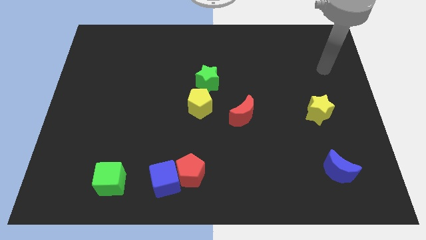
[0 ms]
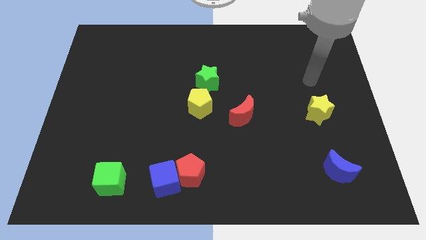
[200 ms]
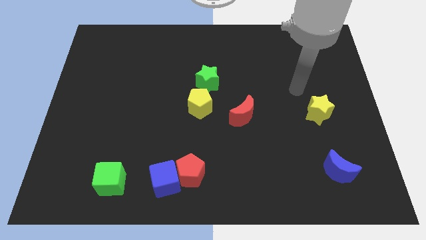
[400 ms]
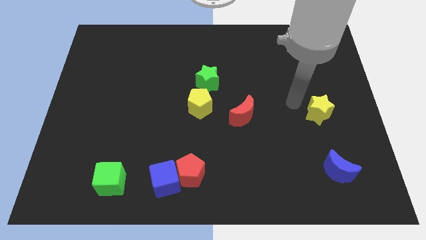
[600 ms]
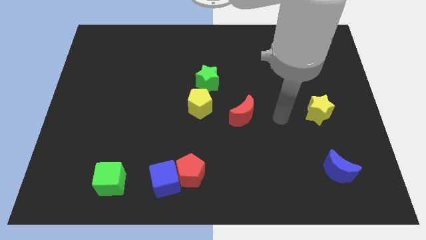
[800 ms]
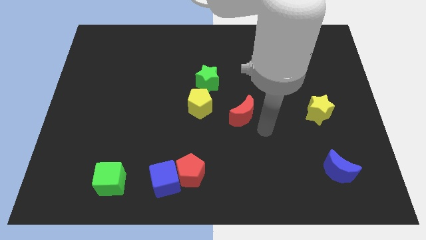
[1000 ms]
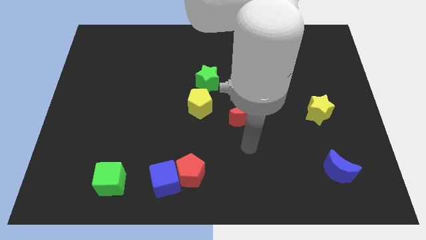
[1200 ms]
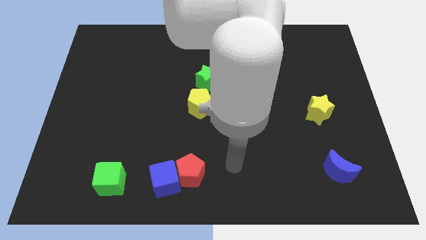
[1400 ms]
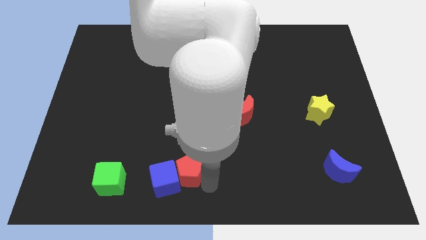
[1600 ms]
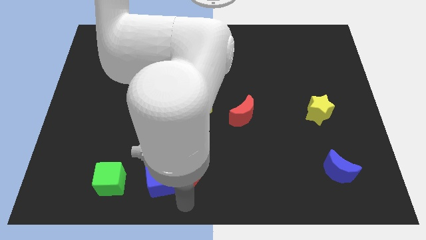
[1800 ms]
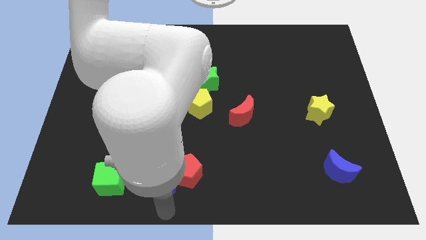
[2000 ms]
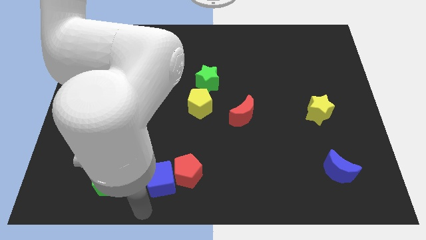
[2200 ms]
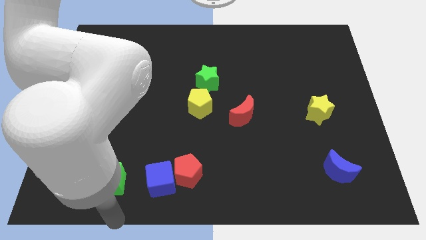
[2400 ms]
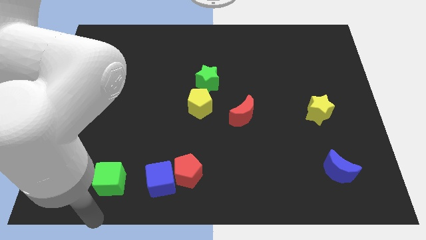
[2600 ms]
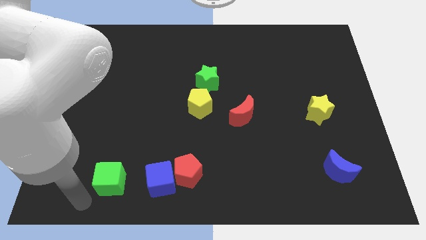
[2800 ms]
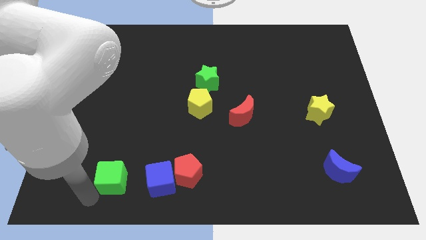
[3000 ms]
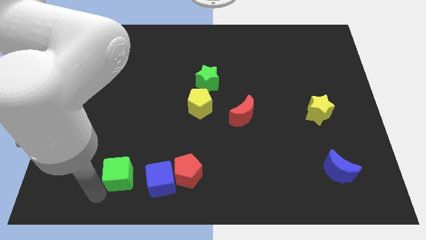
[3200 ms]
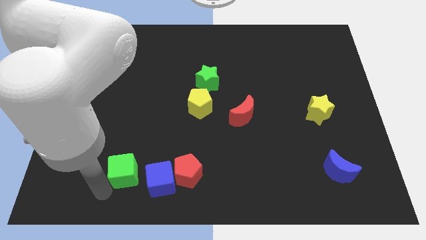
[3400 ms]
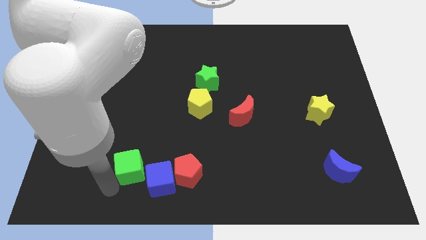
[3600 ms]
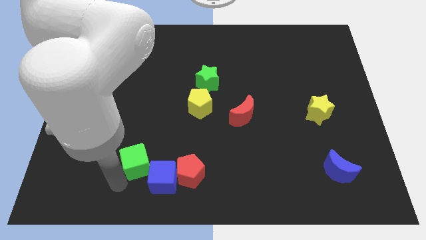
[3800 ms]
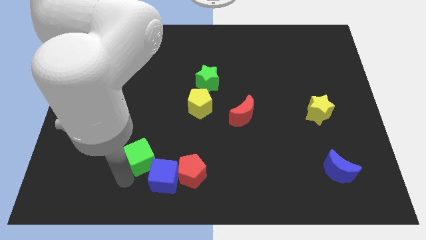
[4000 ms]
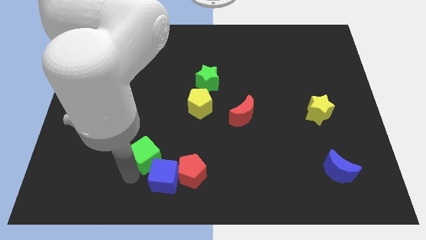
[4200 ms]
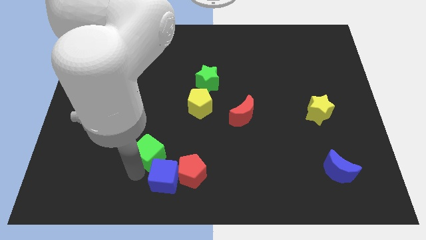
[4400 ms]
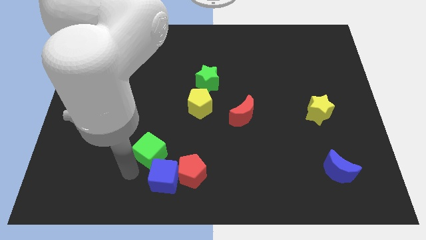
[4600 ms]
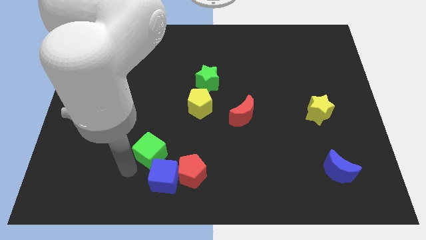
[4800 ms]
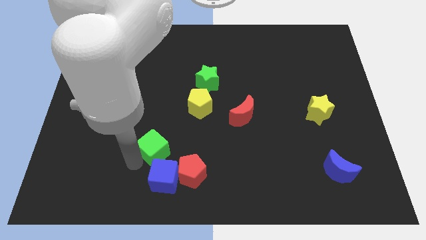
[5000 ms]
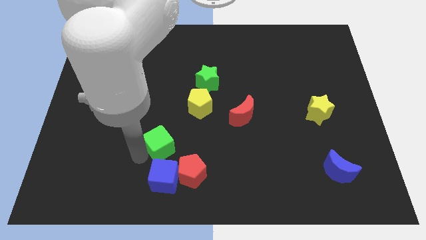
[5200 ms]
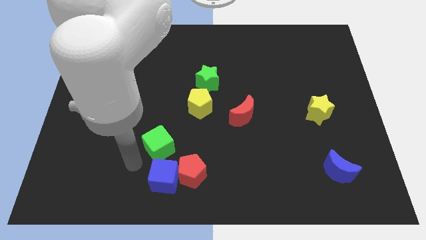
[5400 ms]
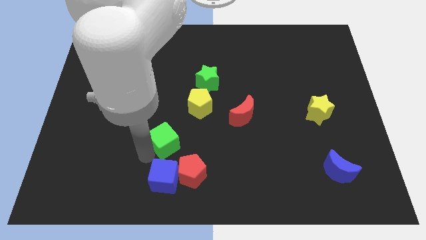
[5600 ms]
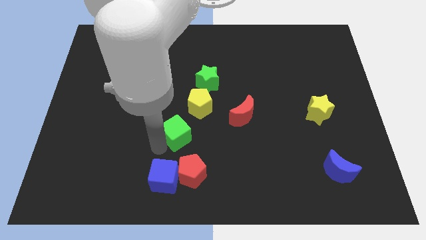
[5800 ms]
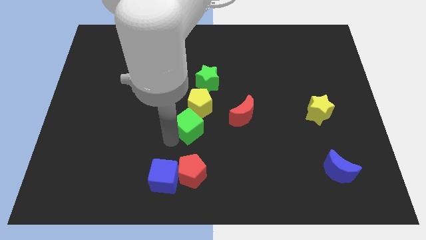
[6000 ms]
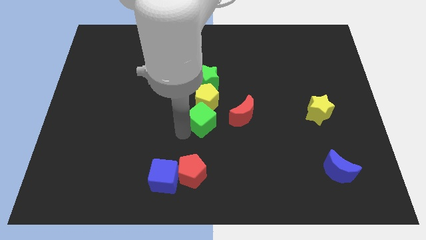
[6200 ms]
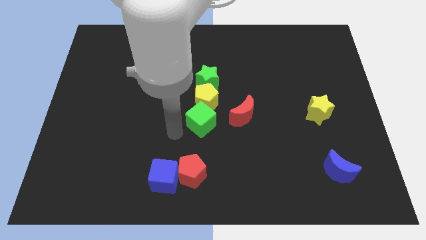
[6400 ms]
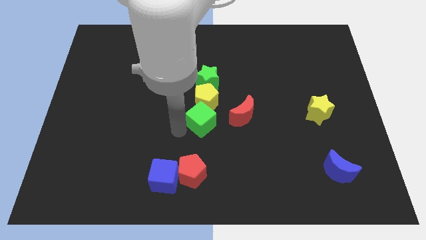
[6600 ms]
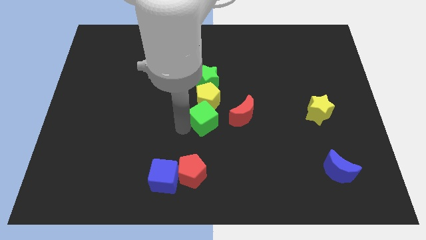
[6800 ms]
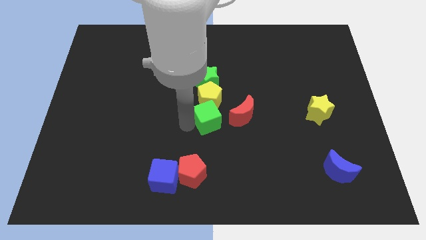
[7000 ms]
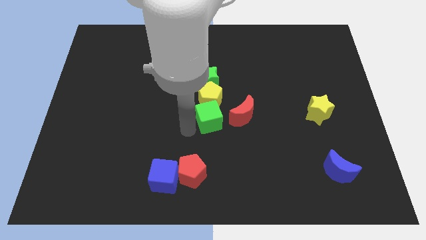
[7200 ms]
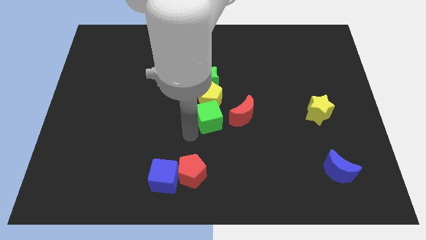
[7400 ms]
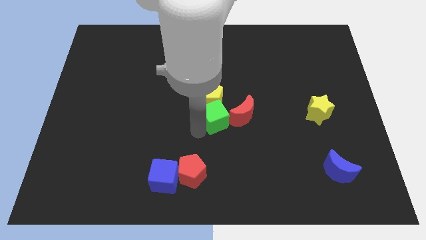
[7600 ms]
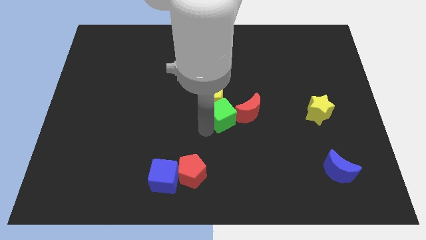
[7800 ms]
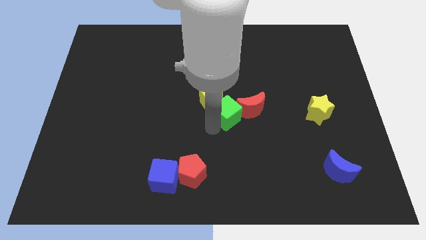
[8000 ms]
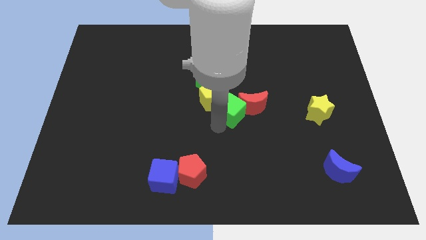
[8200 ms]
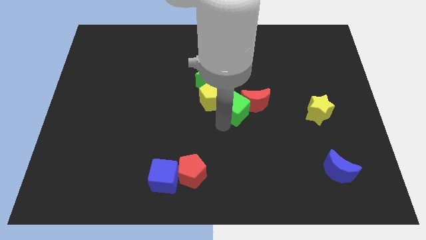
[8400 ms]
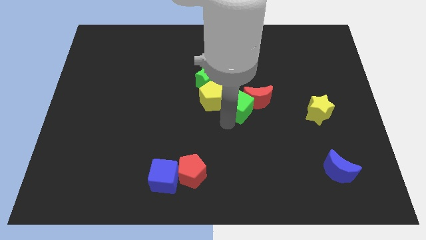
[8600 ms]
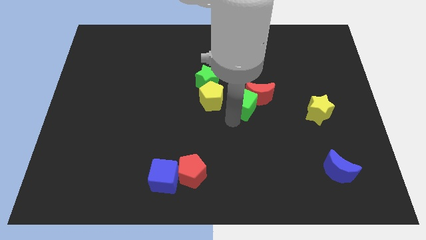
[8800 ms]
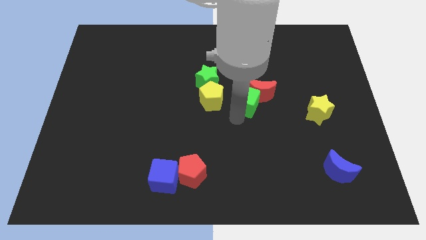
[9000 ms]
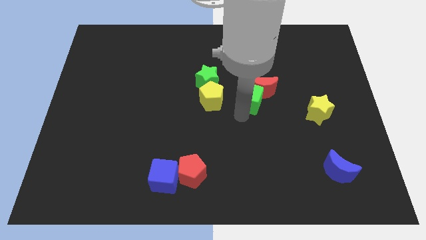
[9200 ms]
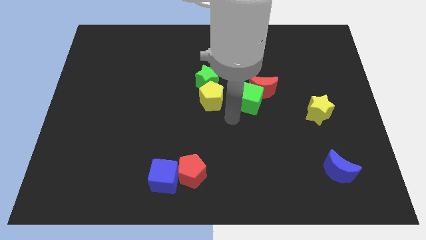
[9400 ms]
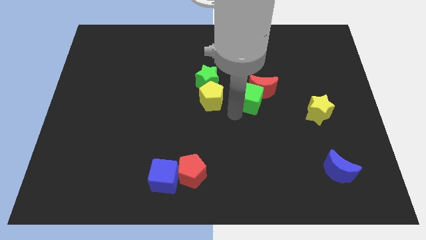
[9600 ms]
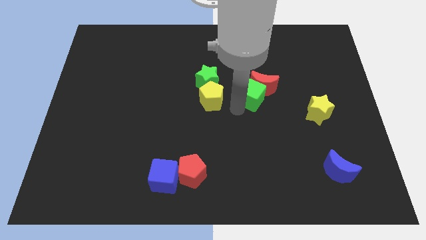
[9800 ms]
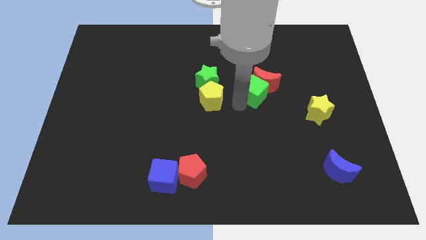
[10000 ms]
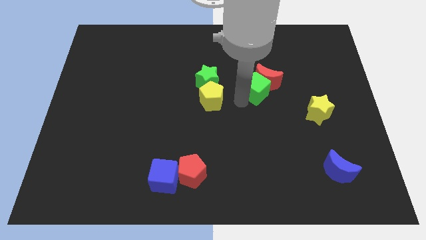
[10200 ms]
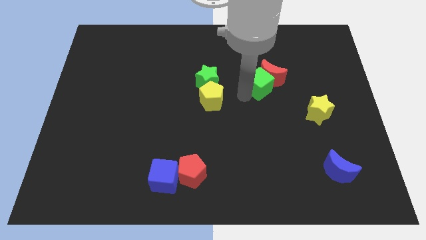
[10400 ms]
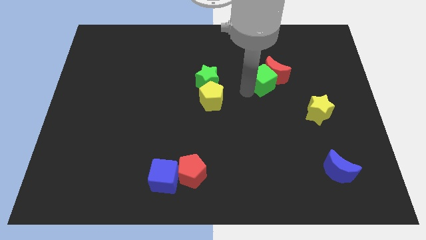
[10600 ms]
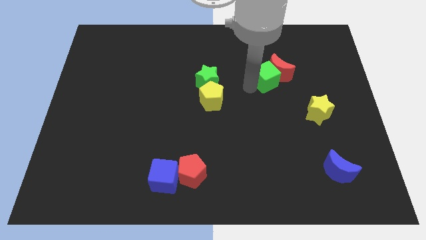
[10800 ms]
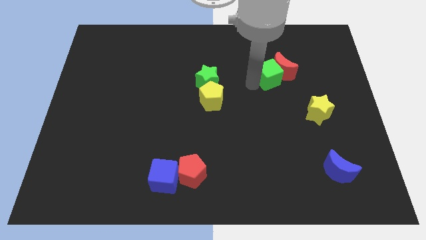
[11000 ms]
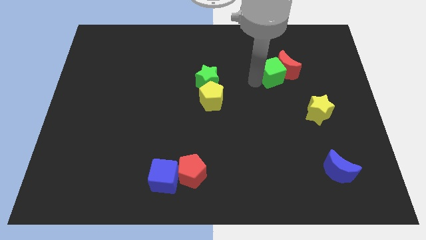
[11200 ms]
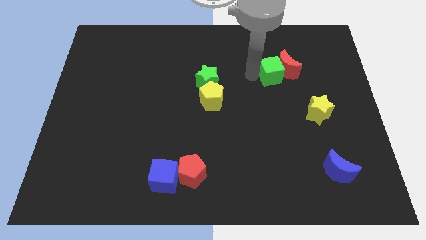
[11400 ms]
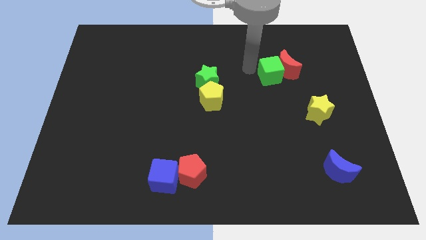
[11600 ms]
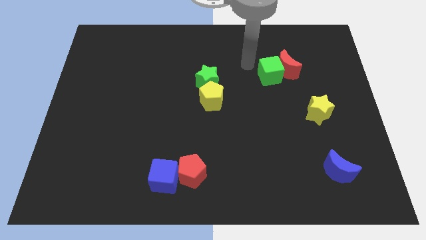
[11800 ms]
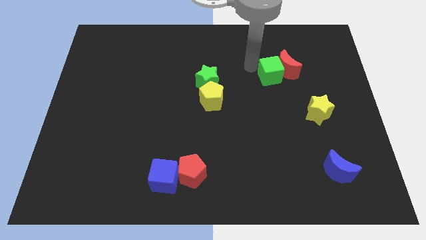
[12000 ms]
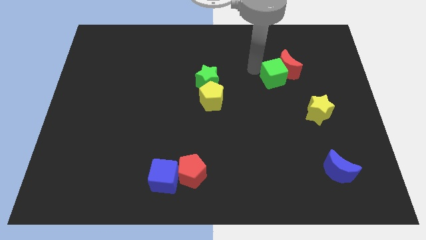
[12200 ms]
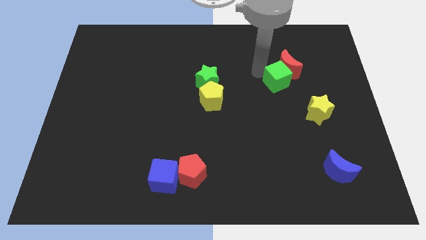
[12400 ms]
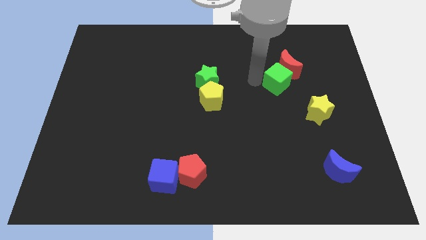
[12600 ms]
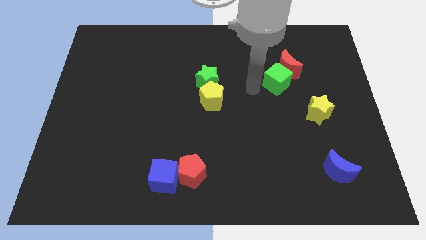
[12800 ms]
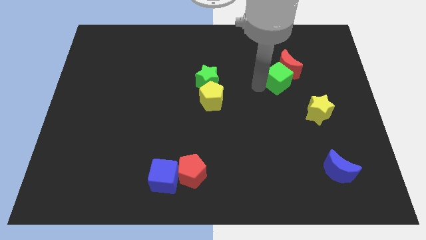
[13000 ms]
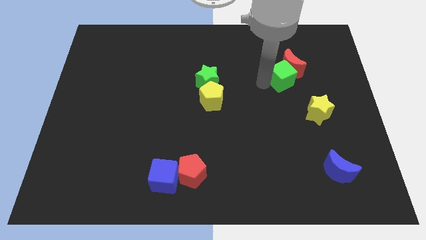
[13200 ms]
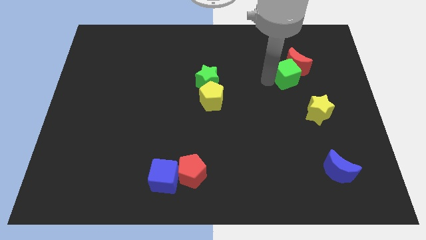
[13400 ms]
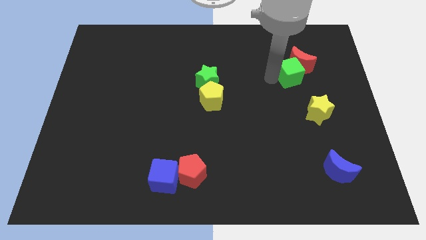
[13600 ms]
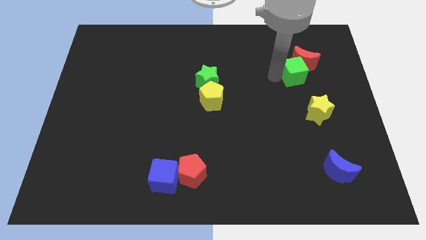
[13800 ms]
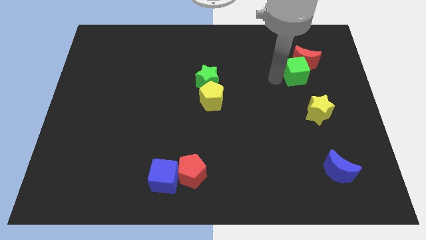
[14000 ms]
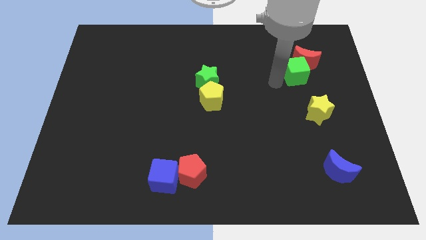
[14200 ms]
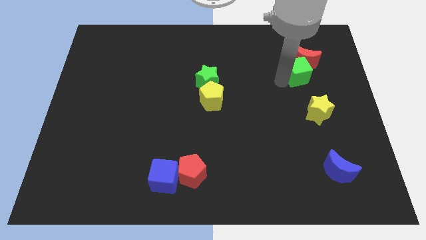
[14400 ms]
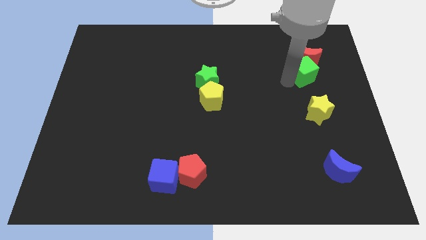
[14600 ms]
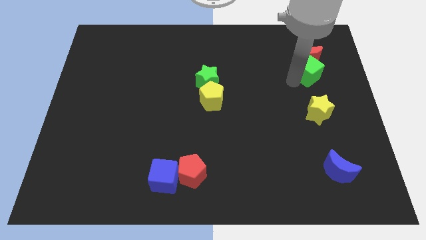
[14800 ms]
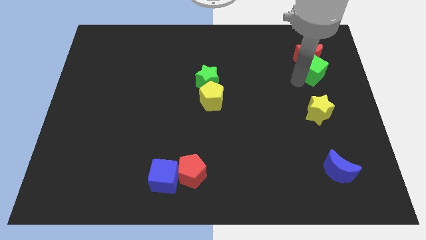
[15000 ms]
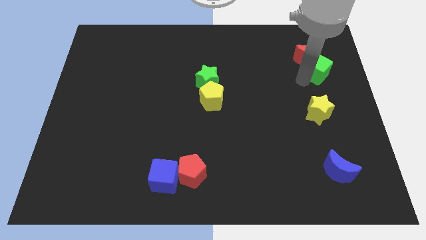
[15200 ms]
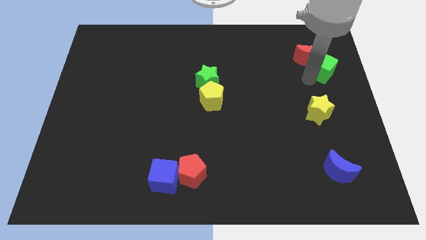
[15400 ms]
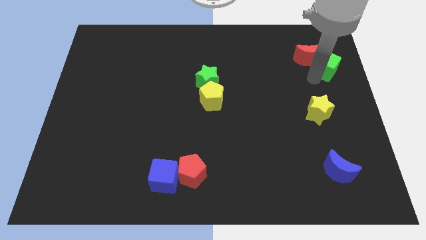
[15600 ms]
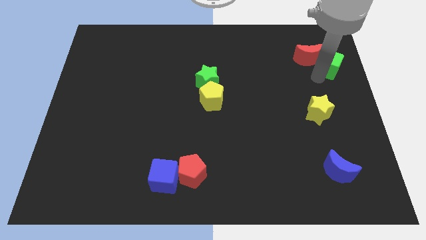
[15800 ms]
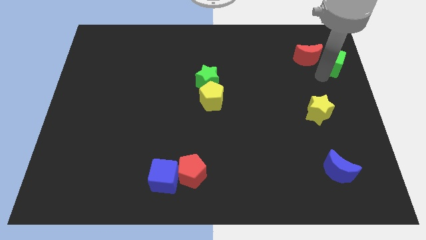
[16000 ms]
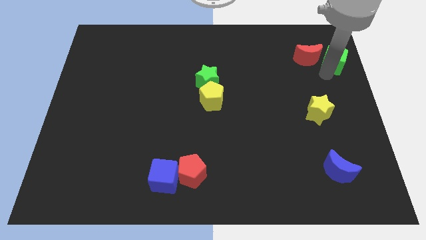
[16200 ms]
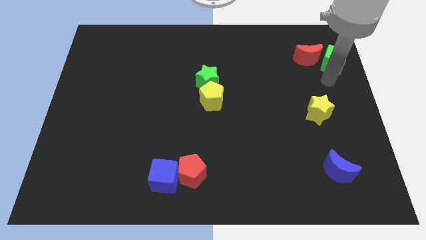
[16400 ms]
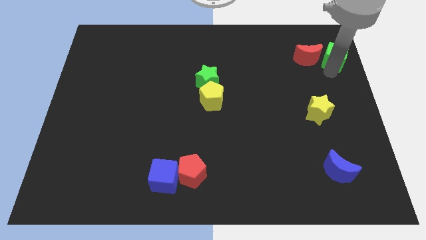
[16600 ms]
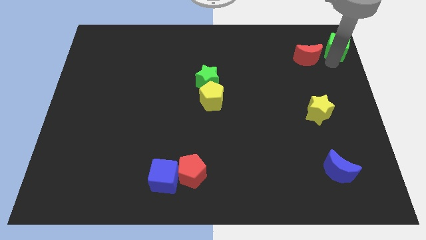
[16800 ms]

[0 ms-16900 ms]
move the green cube to the top right corner
